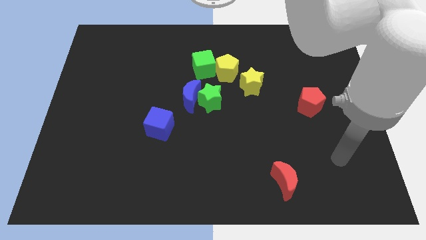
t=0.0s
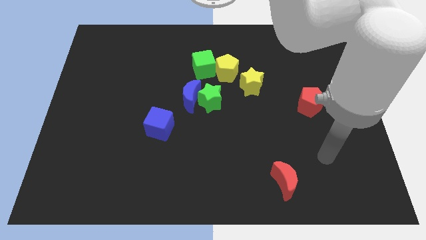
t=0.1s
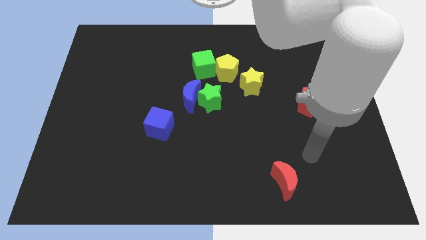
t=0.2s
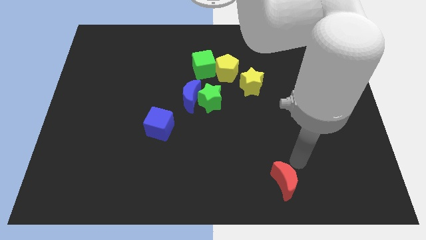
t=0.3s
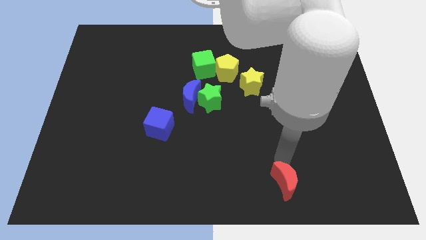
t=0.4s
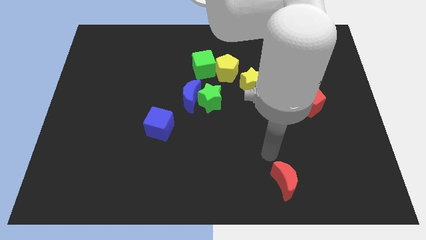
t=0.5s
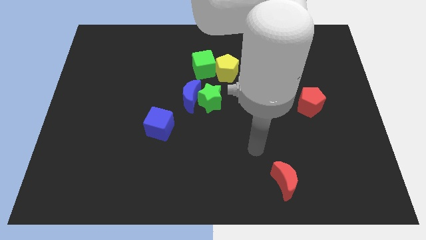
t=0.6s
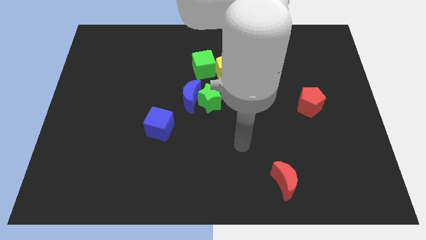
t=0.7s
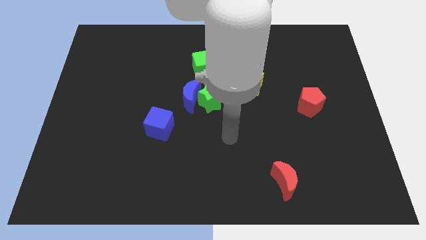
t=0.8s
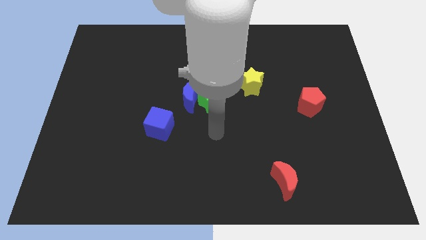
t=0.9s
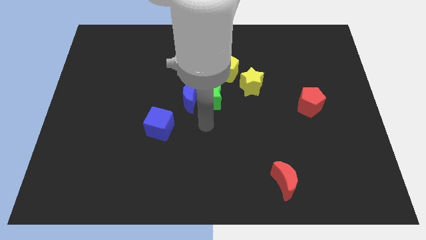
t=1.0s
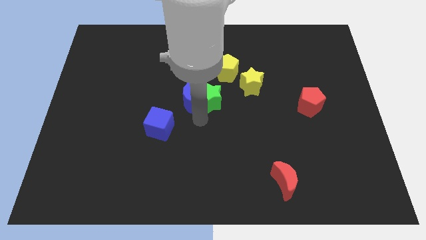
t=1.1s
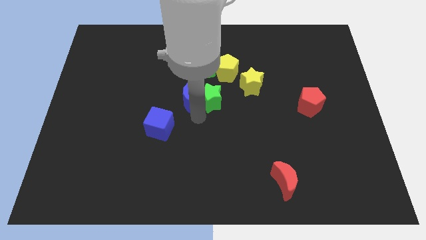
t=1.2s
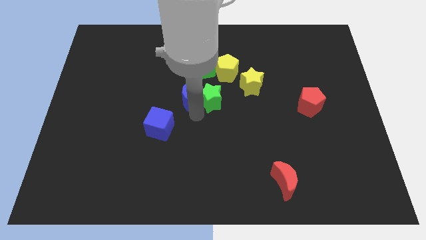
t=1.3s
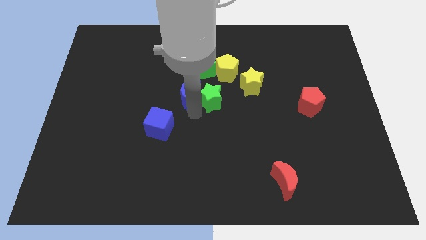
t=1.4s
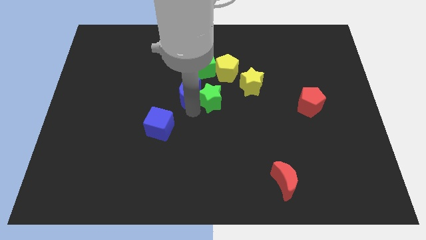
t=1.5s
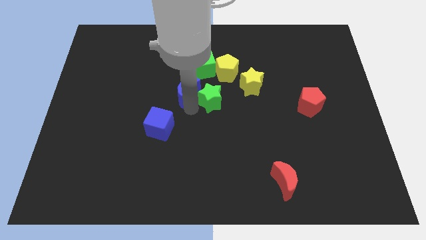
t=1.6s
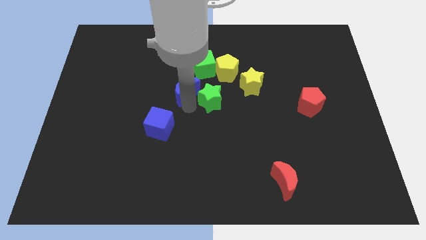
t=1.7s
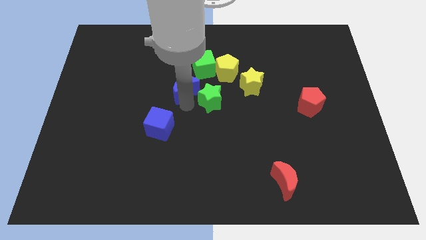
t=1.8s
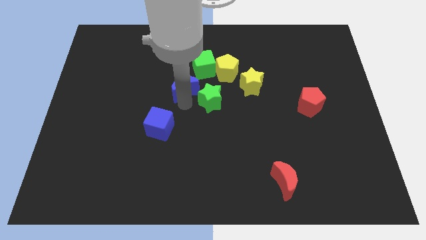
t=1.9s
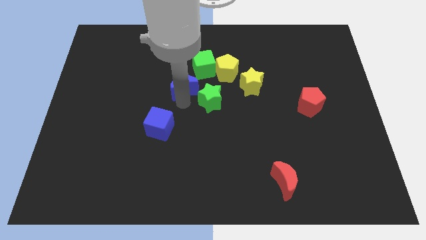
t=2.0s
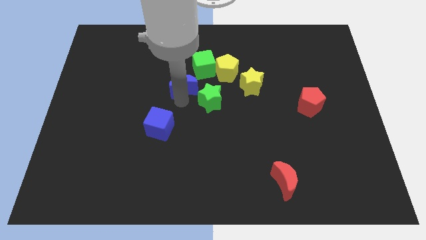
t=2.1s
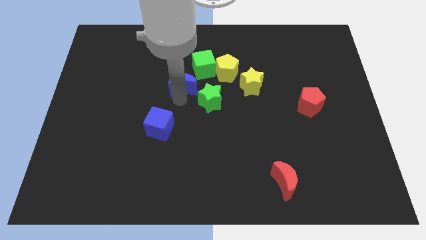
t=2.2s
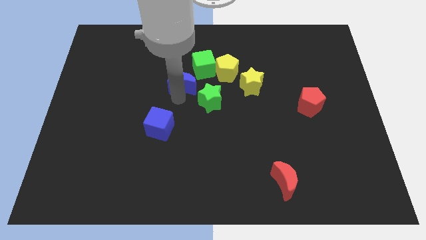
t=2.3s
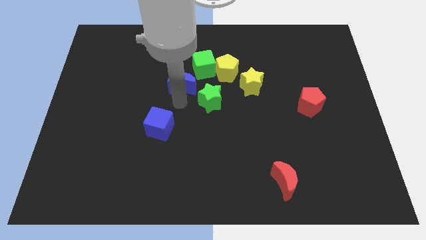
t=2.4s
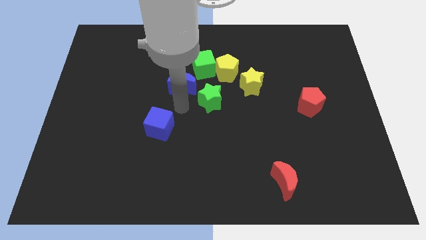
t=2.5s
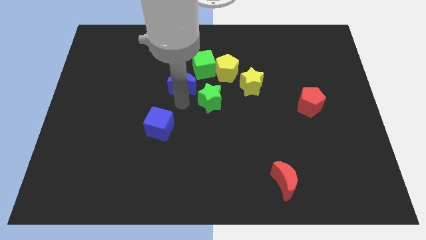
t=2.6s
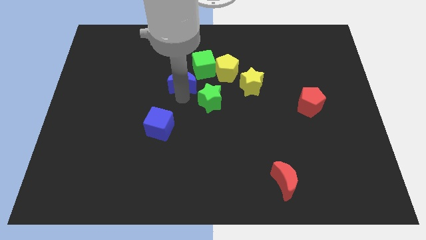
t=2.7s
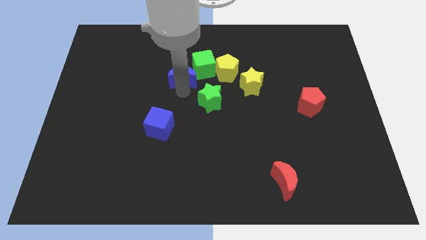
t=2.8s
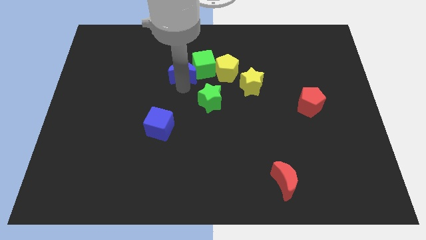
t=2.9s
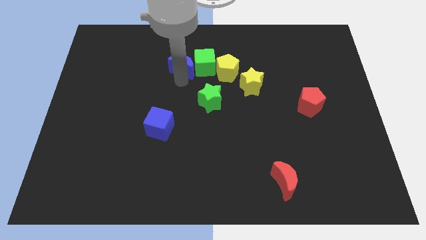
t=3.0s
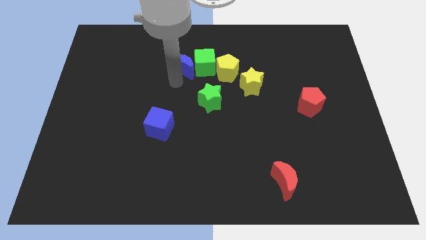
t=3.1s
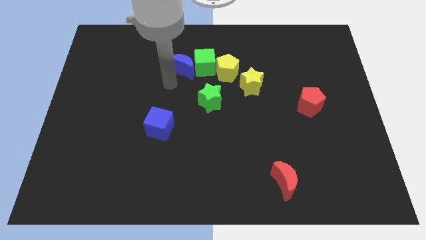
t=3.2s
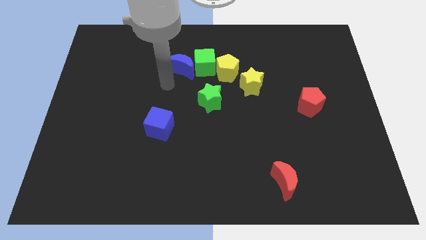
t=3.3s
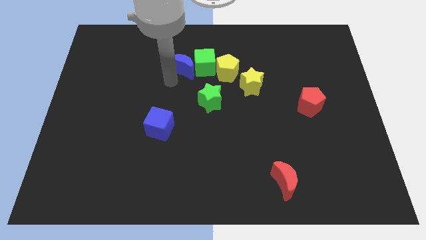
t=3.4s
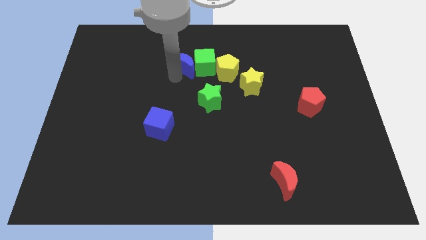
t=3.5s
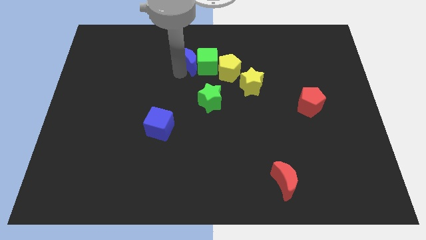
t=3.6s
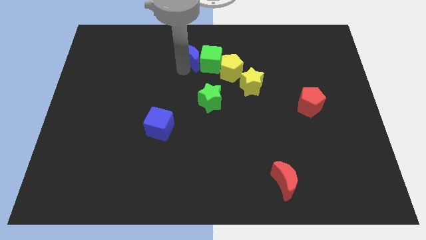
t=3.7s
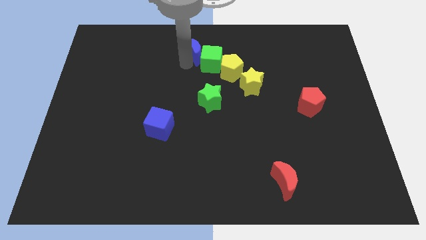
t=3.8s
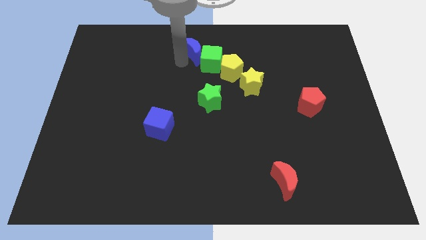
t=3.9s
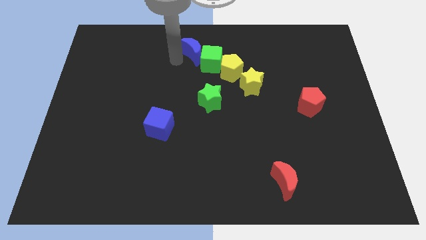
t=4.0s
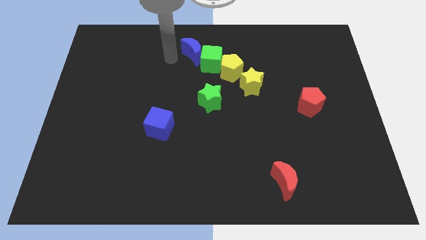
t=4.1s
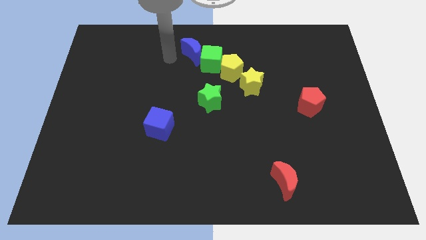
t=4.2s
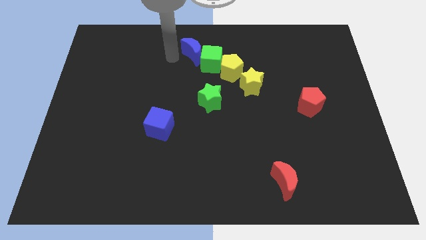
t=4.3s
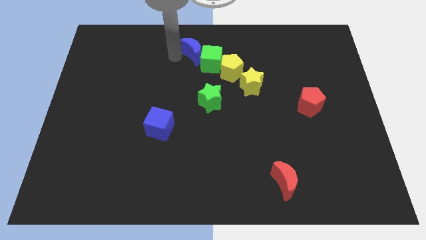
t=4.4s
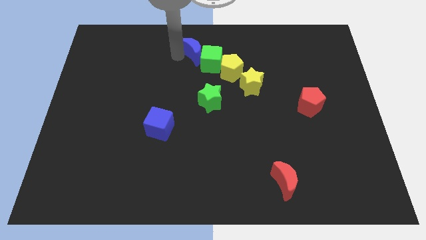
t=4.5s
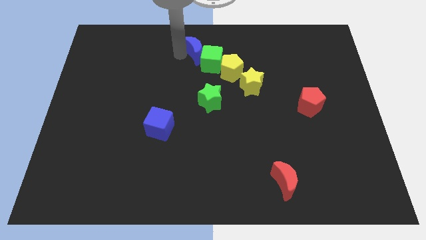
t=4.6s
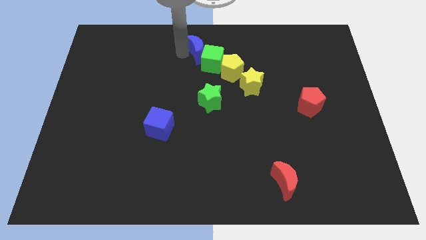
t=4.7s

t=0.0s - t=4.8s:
push the blue moon up and right diagonally a bit

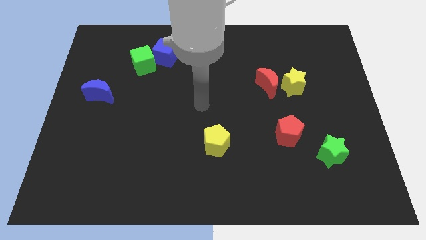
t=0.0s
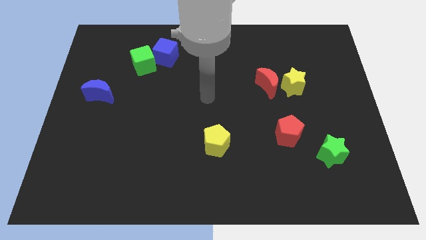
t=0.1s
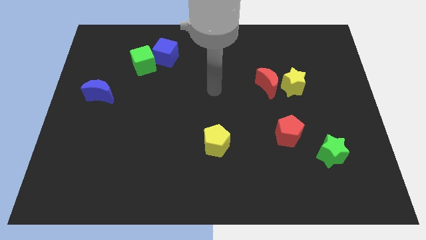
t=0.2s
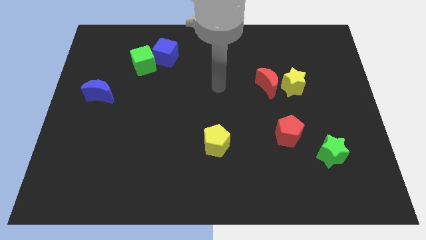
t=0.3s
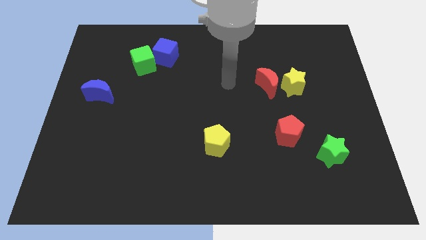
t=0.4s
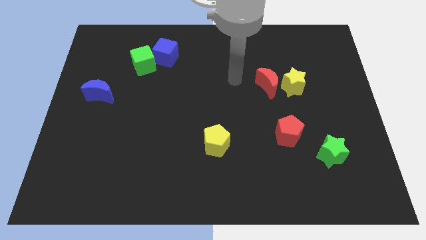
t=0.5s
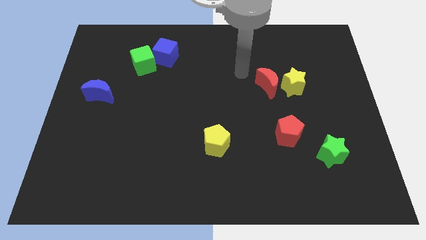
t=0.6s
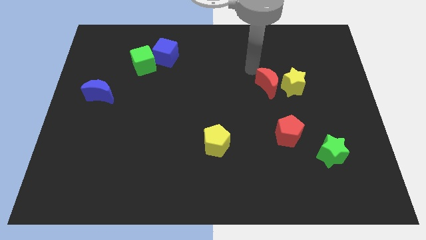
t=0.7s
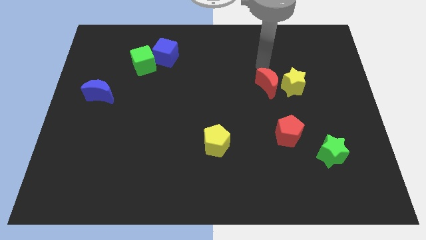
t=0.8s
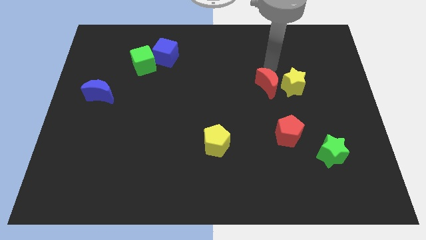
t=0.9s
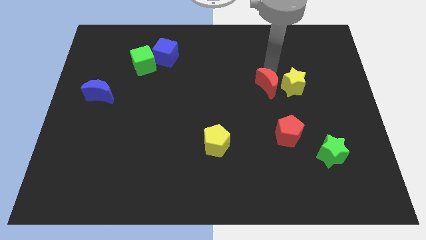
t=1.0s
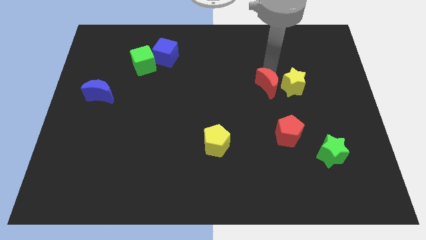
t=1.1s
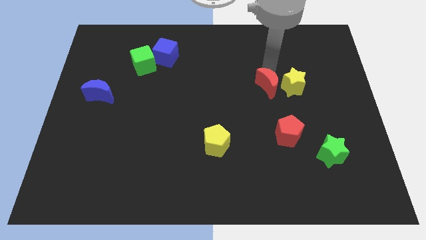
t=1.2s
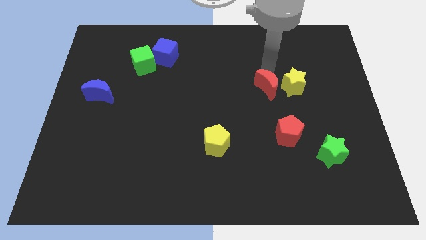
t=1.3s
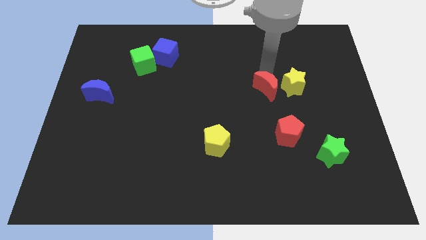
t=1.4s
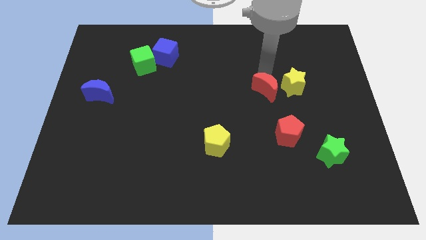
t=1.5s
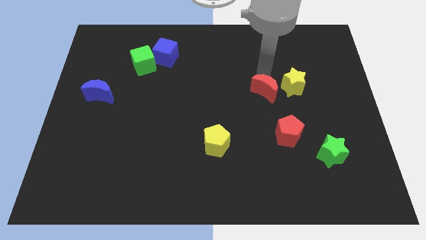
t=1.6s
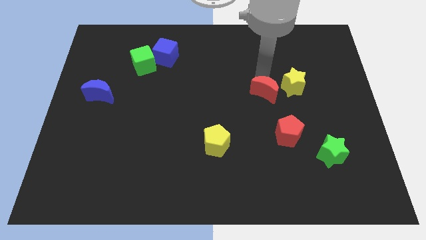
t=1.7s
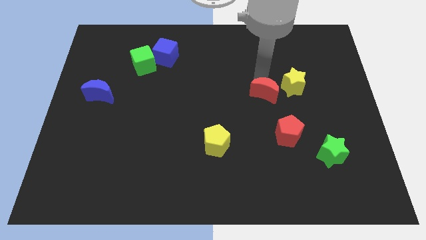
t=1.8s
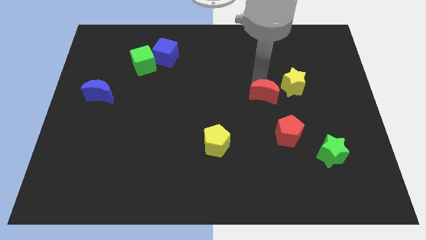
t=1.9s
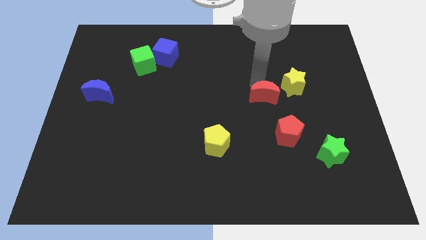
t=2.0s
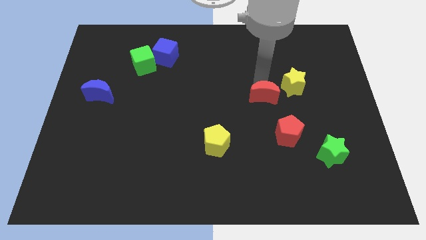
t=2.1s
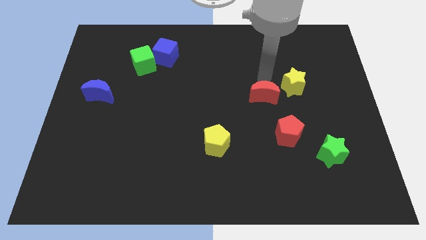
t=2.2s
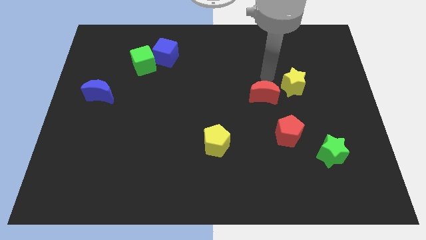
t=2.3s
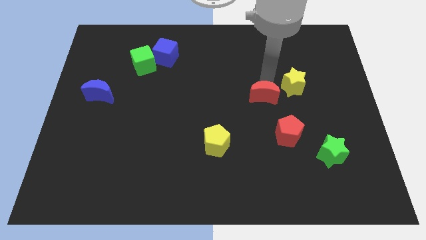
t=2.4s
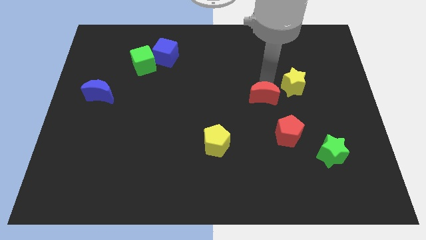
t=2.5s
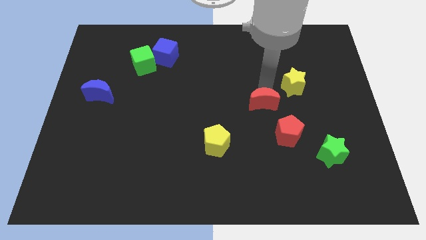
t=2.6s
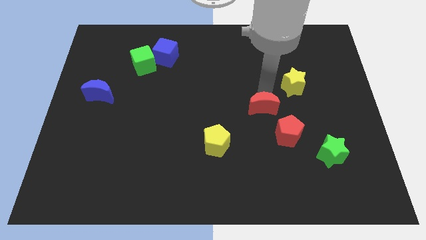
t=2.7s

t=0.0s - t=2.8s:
push the red moon down a little
